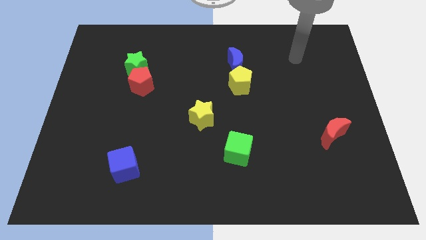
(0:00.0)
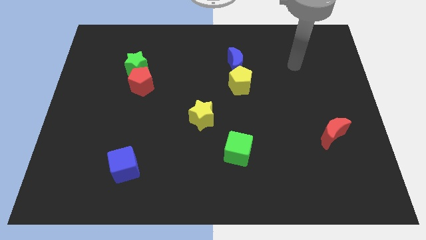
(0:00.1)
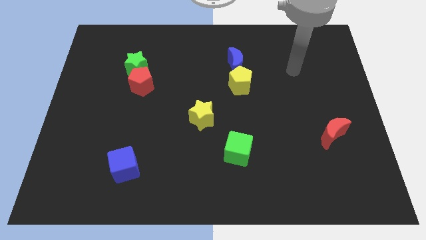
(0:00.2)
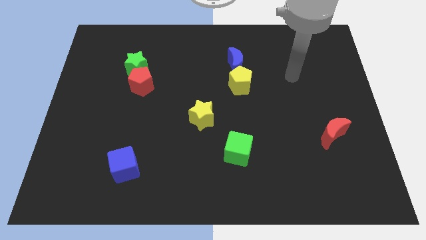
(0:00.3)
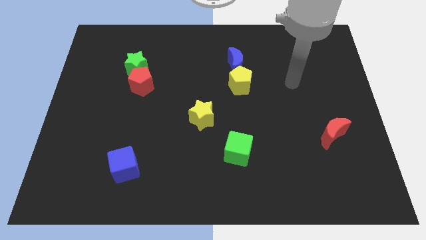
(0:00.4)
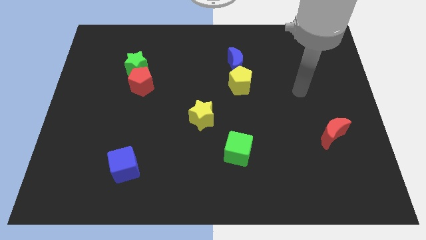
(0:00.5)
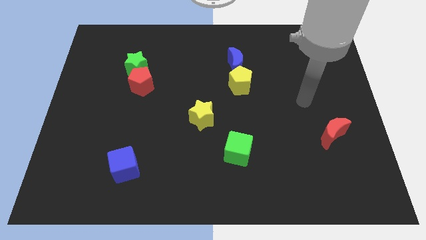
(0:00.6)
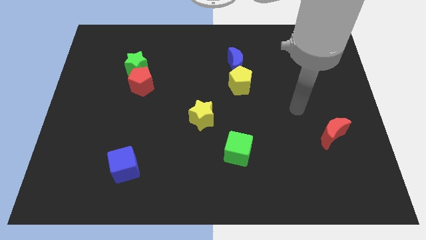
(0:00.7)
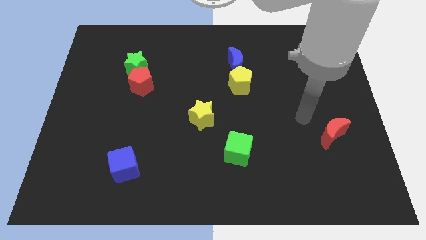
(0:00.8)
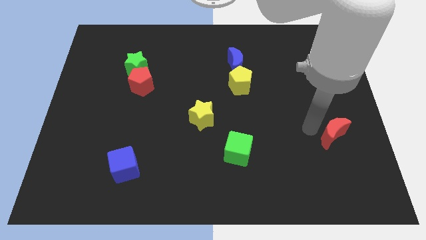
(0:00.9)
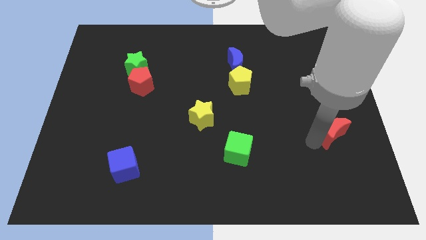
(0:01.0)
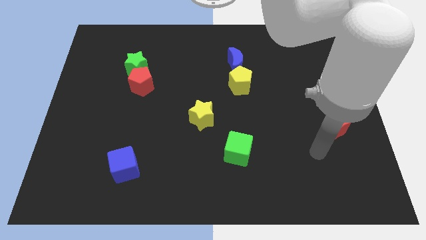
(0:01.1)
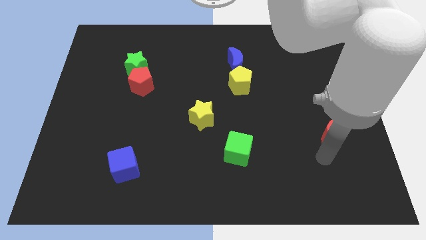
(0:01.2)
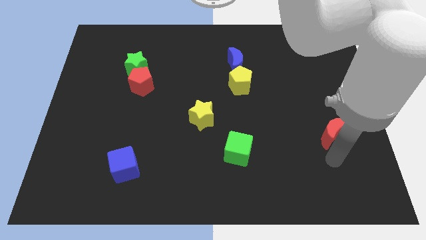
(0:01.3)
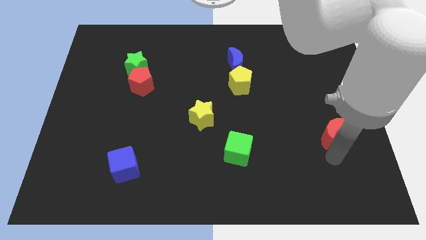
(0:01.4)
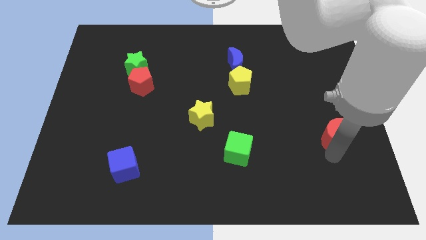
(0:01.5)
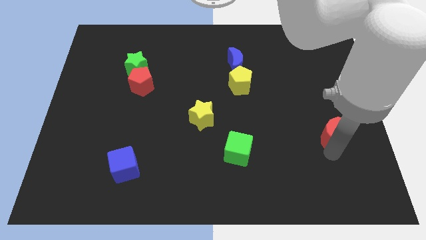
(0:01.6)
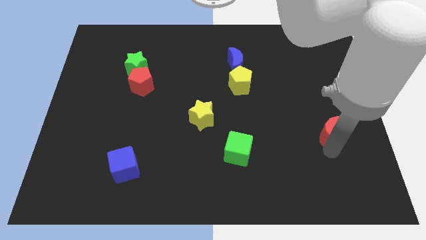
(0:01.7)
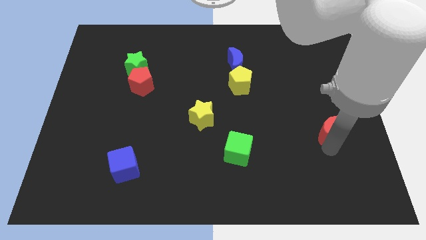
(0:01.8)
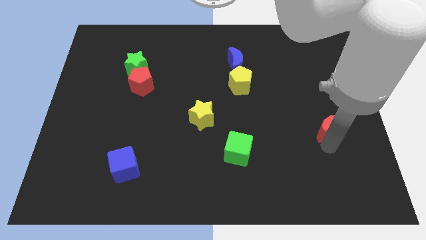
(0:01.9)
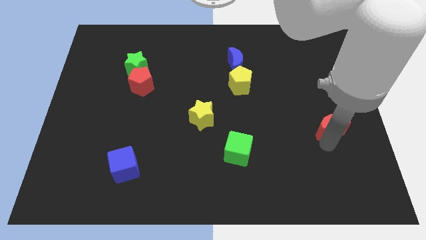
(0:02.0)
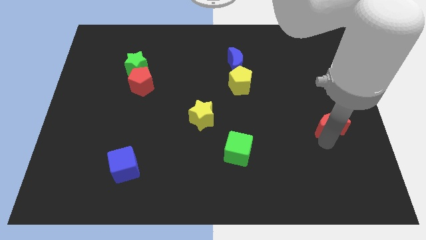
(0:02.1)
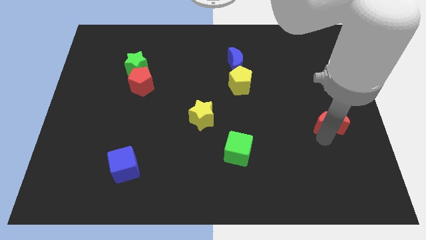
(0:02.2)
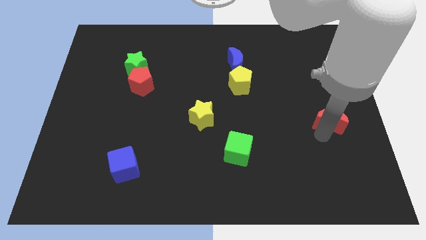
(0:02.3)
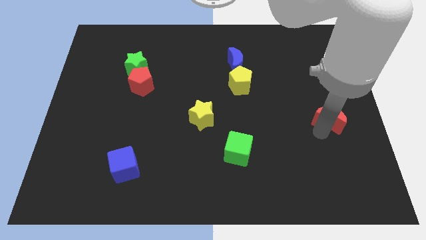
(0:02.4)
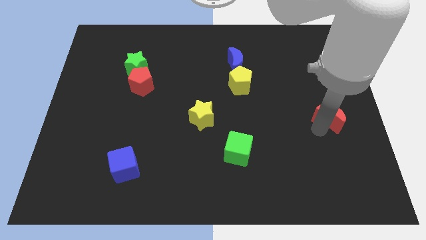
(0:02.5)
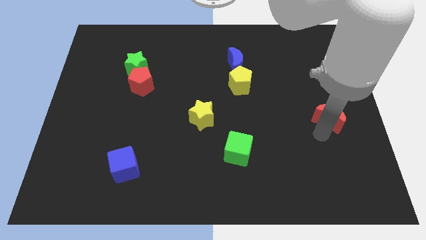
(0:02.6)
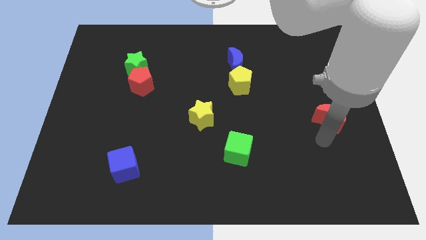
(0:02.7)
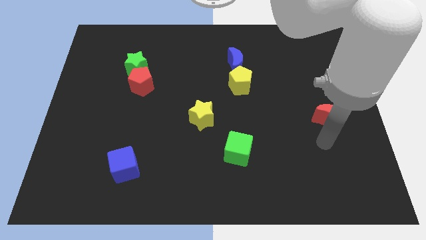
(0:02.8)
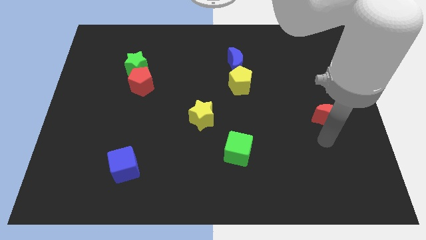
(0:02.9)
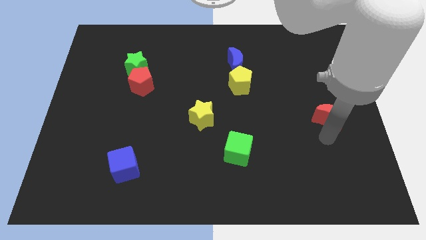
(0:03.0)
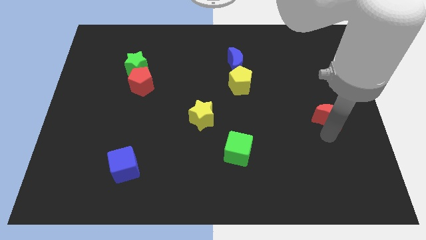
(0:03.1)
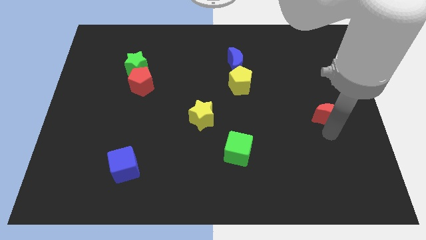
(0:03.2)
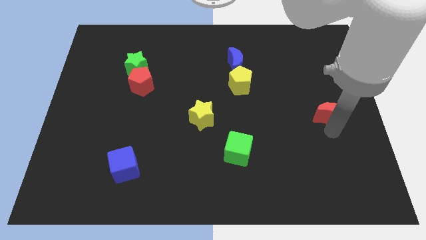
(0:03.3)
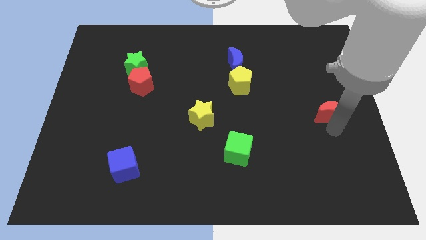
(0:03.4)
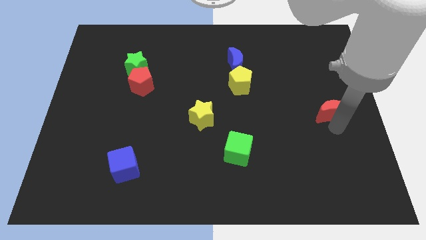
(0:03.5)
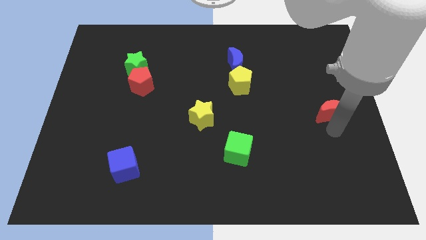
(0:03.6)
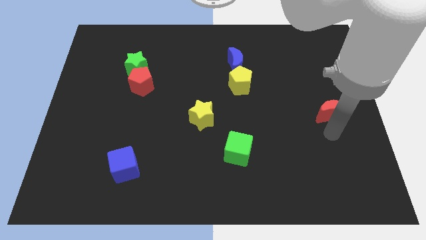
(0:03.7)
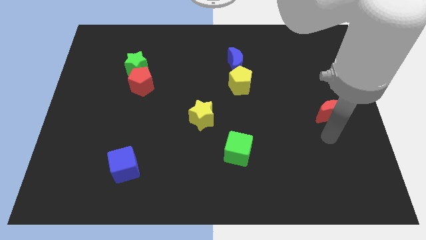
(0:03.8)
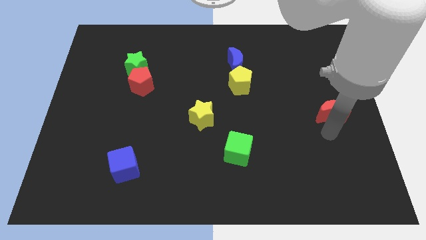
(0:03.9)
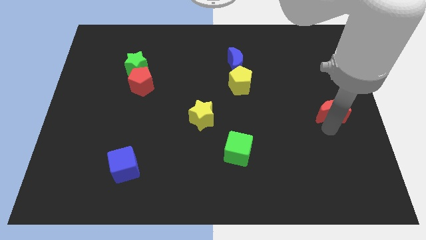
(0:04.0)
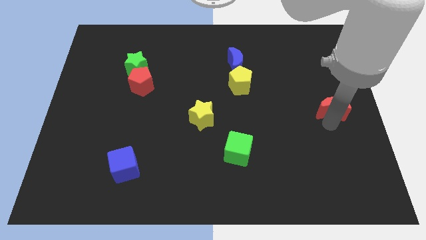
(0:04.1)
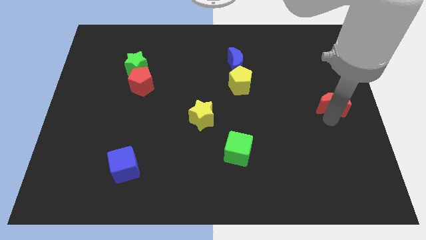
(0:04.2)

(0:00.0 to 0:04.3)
move the red moon a bit up

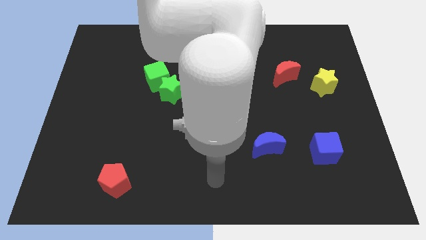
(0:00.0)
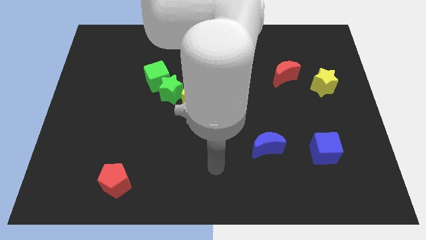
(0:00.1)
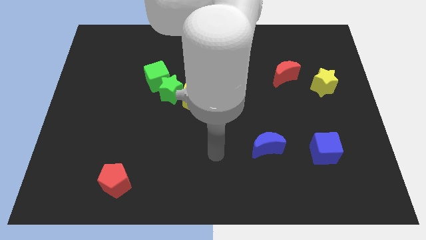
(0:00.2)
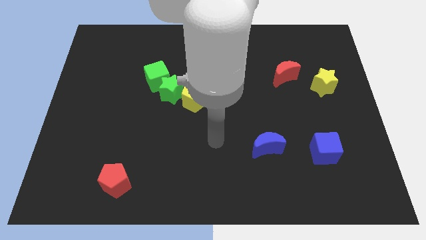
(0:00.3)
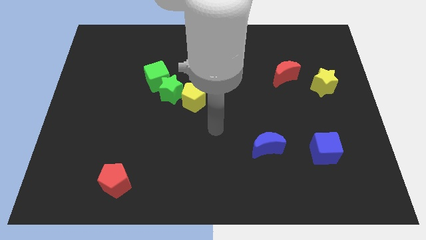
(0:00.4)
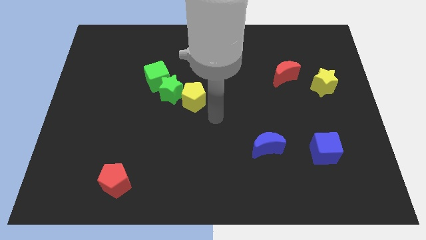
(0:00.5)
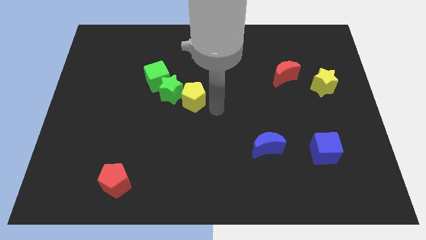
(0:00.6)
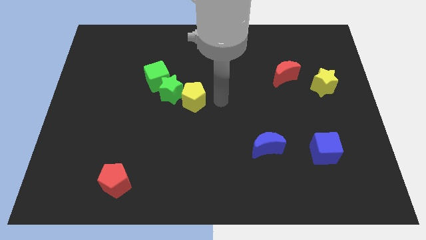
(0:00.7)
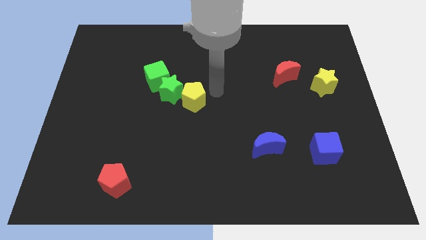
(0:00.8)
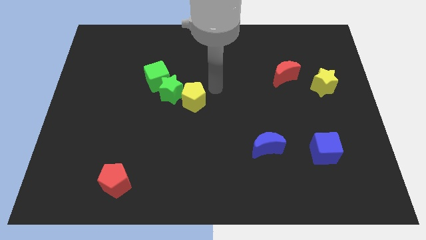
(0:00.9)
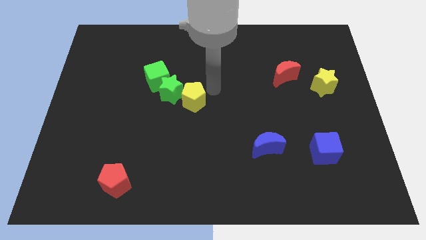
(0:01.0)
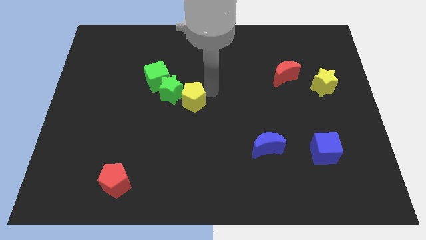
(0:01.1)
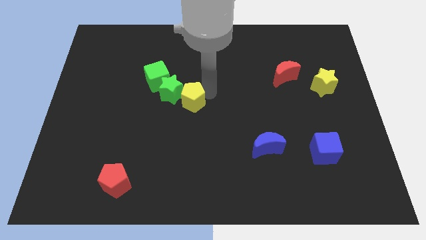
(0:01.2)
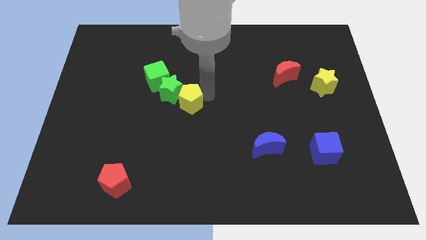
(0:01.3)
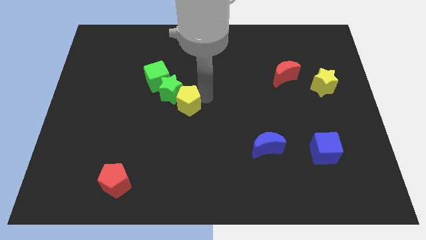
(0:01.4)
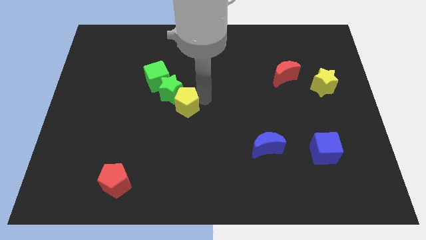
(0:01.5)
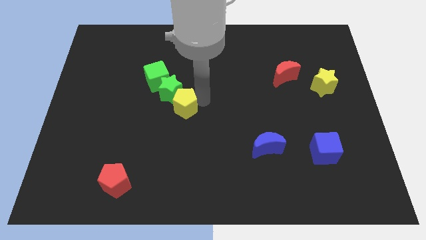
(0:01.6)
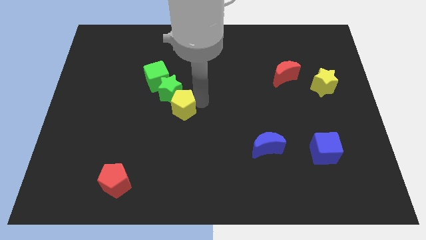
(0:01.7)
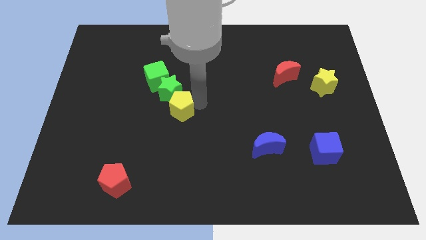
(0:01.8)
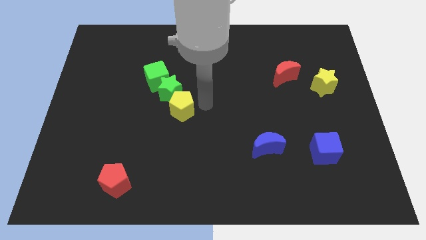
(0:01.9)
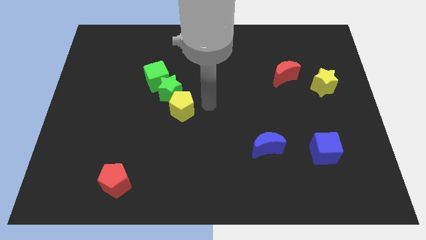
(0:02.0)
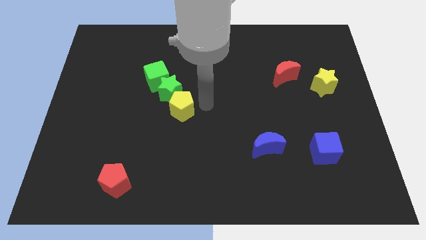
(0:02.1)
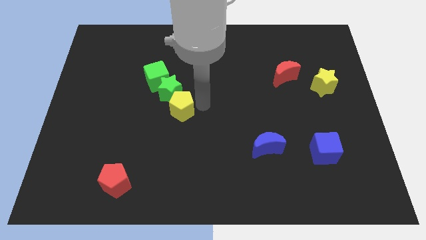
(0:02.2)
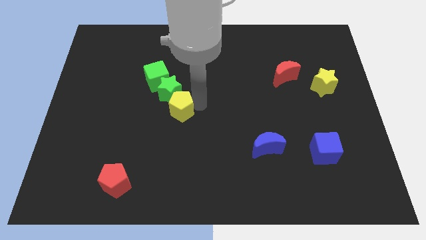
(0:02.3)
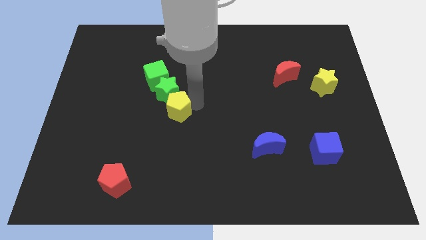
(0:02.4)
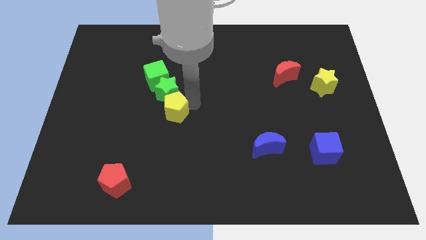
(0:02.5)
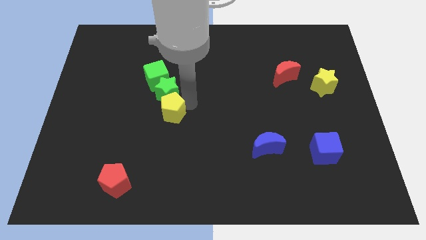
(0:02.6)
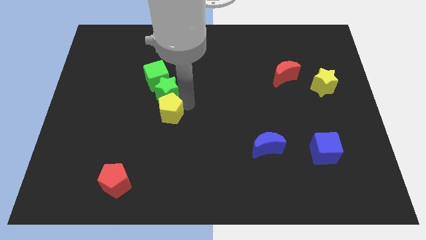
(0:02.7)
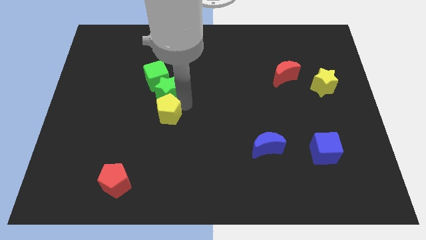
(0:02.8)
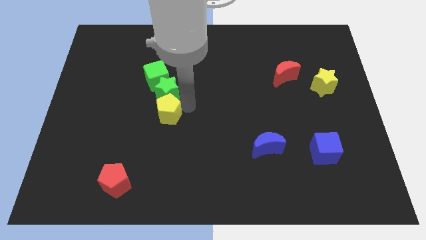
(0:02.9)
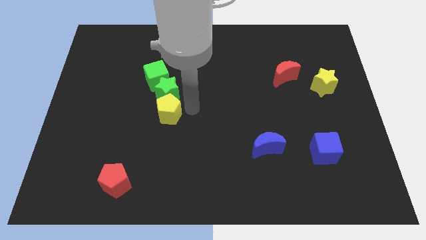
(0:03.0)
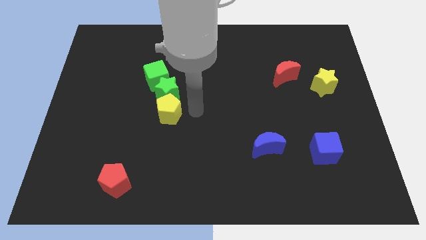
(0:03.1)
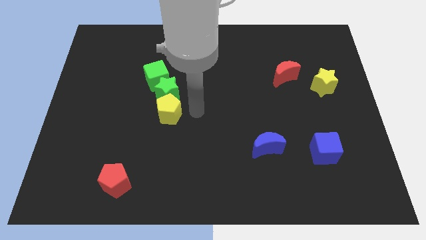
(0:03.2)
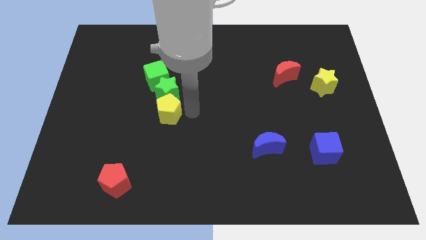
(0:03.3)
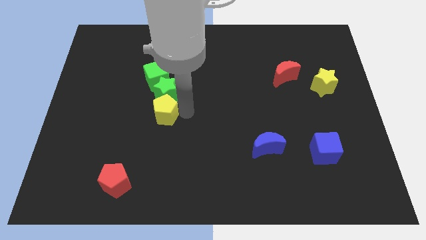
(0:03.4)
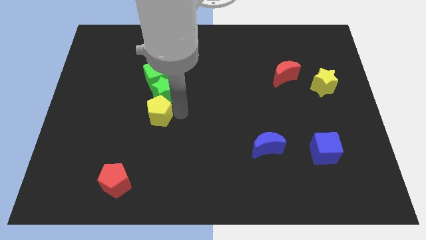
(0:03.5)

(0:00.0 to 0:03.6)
move the yellow pentagon a little left
